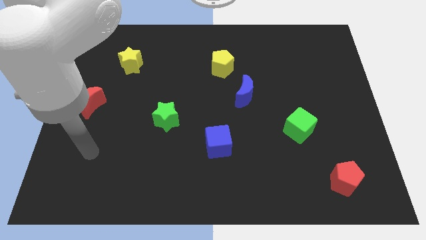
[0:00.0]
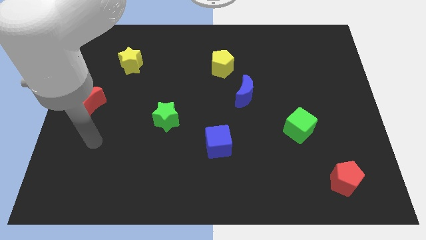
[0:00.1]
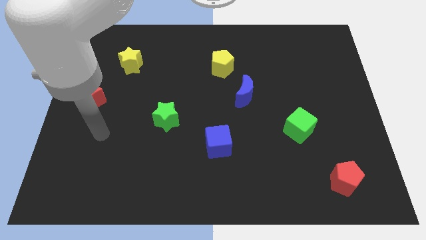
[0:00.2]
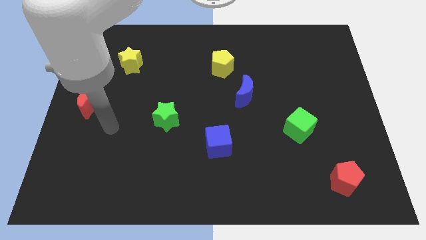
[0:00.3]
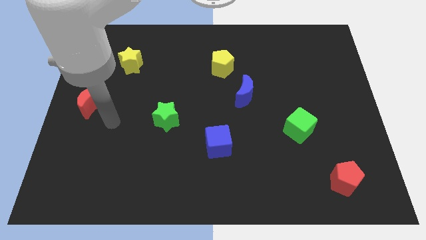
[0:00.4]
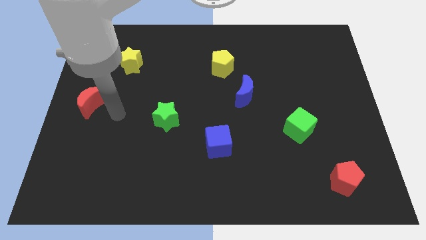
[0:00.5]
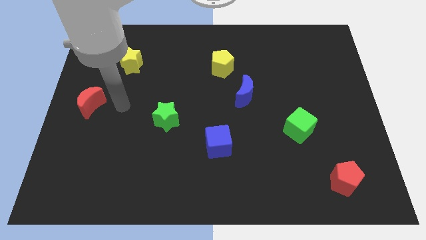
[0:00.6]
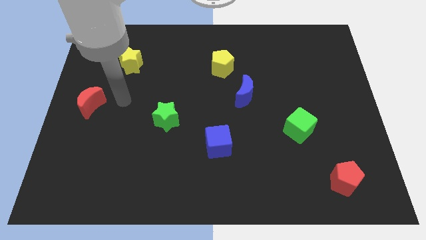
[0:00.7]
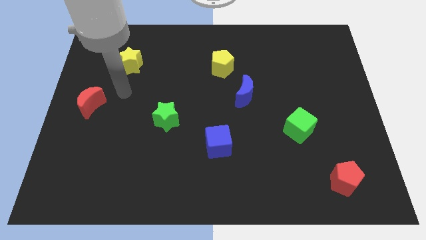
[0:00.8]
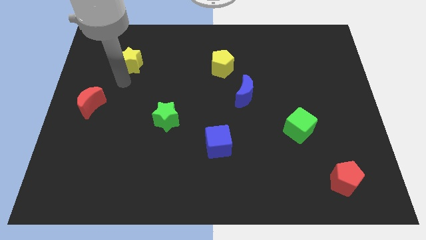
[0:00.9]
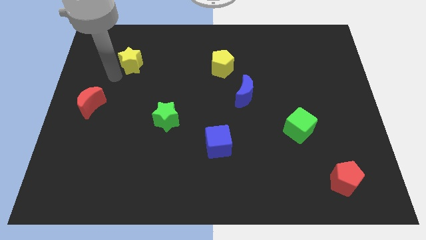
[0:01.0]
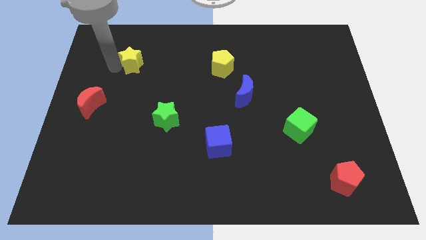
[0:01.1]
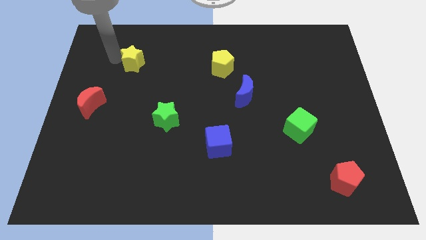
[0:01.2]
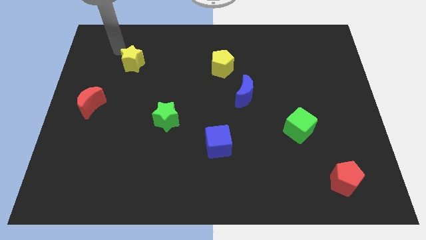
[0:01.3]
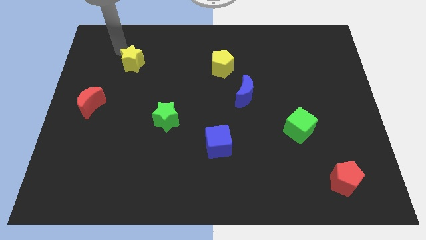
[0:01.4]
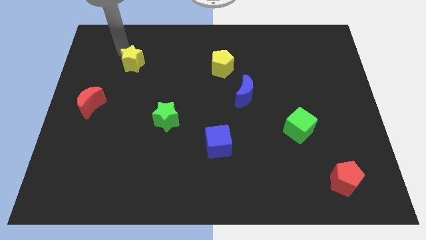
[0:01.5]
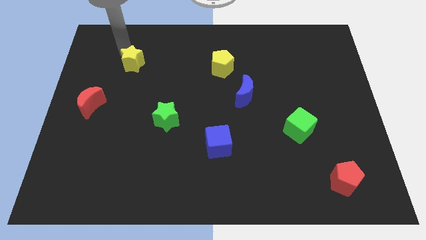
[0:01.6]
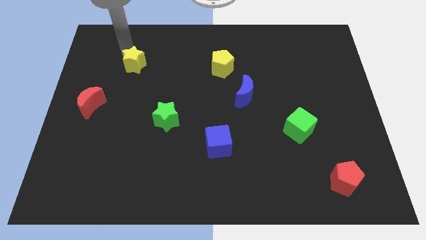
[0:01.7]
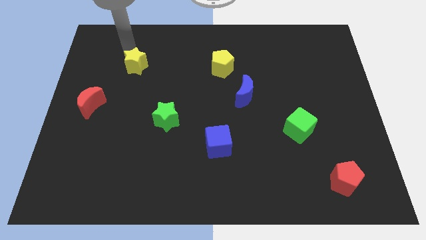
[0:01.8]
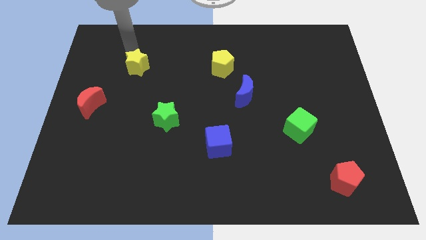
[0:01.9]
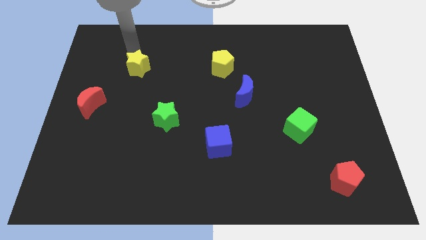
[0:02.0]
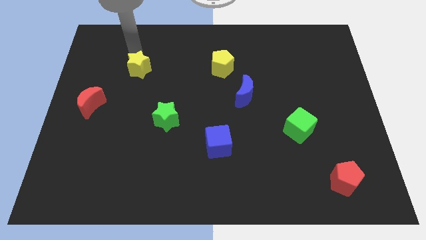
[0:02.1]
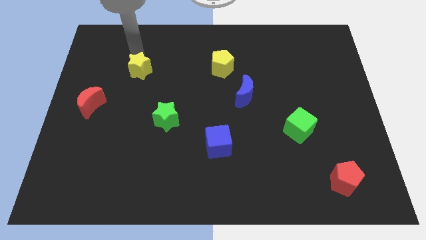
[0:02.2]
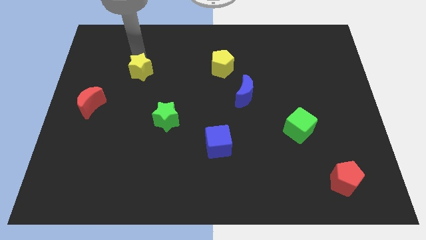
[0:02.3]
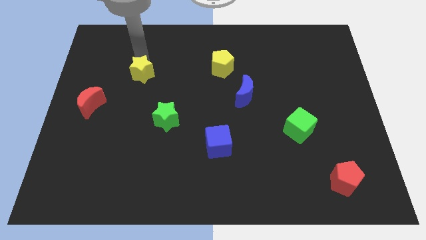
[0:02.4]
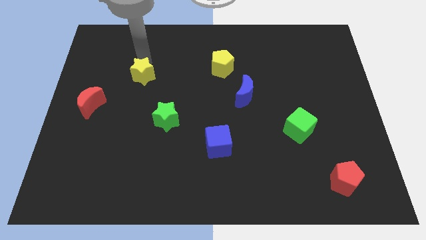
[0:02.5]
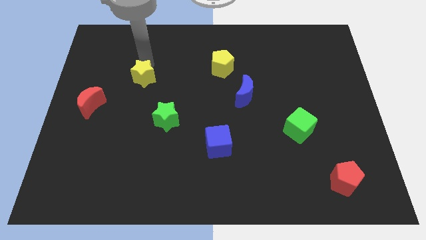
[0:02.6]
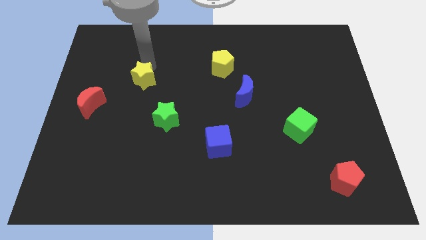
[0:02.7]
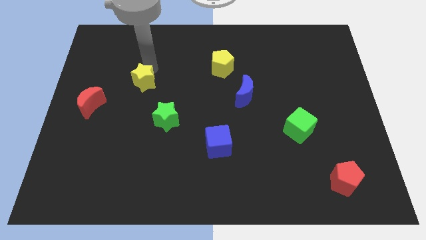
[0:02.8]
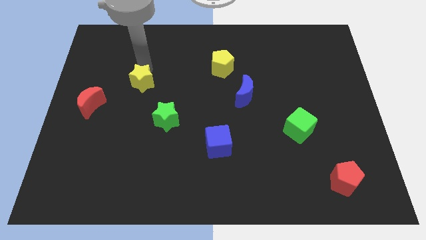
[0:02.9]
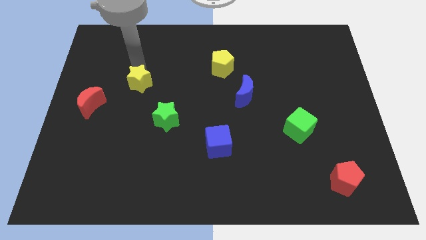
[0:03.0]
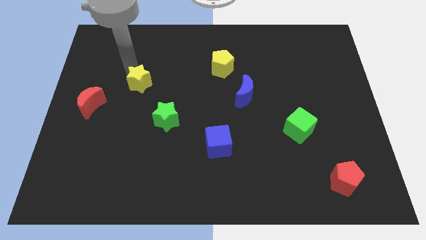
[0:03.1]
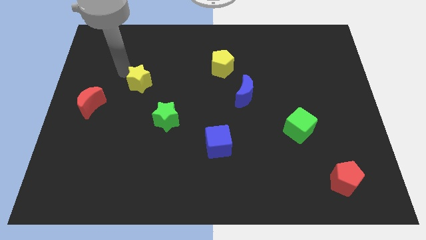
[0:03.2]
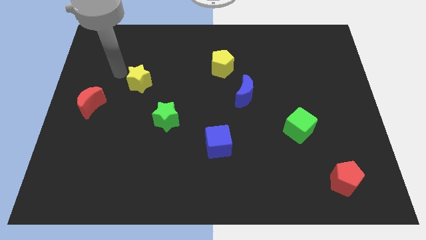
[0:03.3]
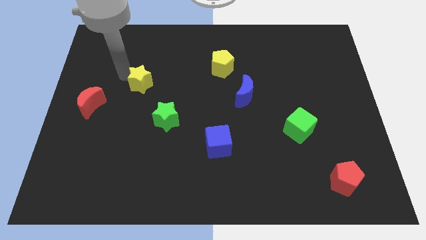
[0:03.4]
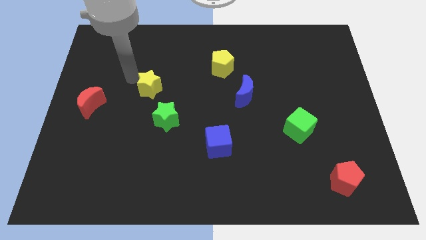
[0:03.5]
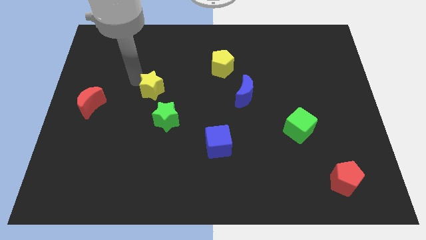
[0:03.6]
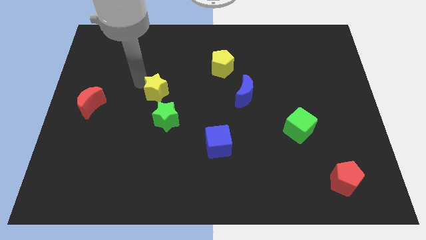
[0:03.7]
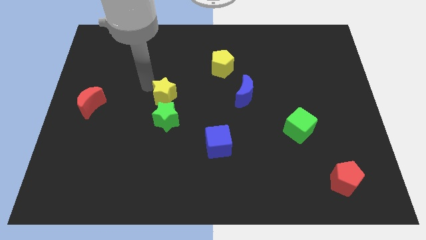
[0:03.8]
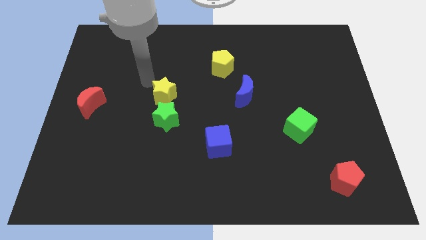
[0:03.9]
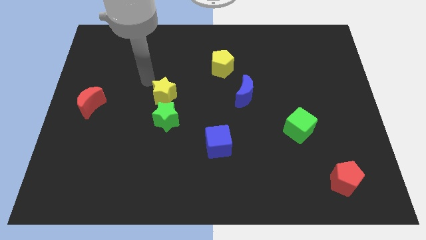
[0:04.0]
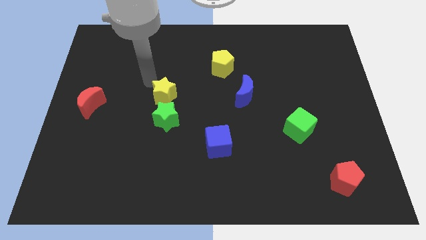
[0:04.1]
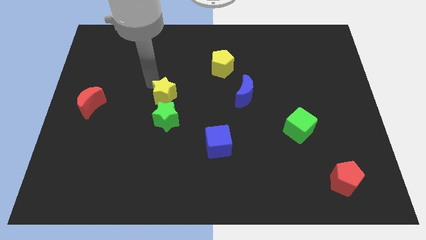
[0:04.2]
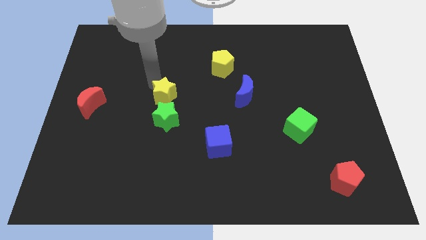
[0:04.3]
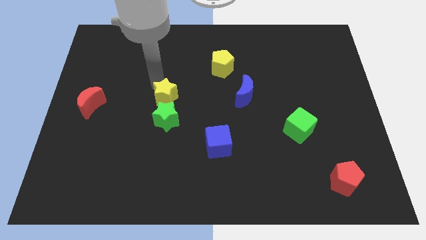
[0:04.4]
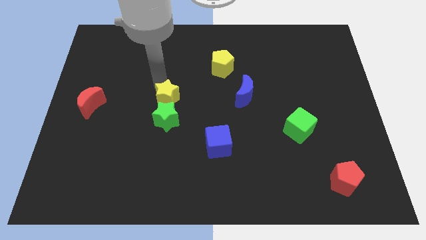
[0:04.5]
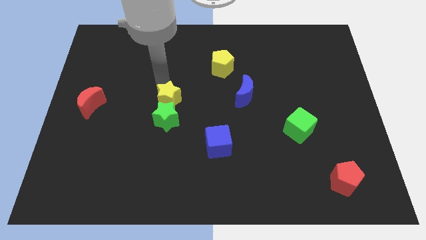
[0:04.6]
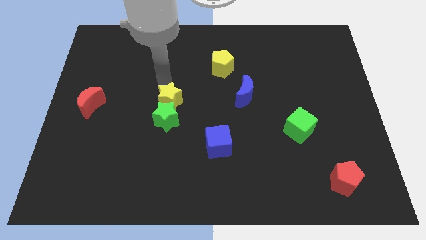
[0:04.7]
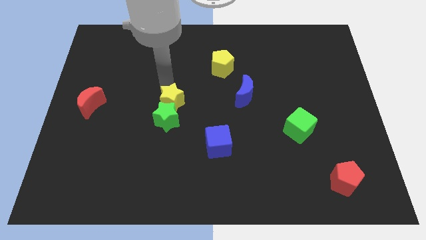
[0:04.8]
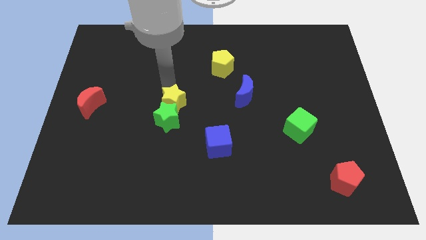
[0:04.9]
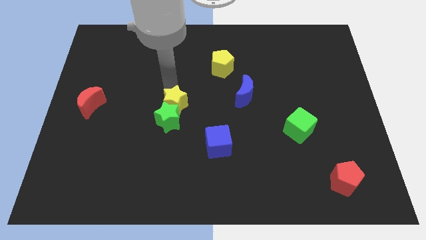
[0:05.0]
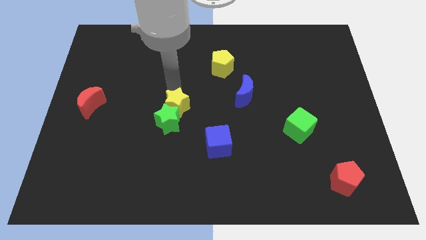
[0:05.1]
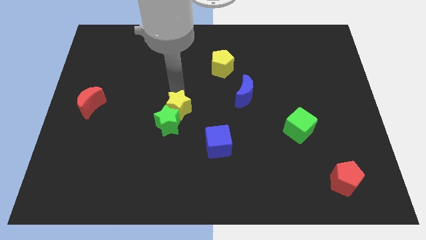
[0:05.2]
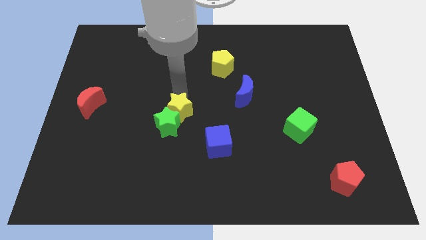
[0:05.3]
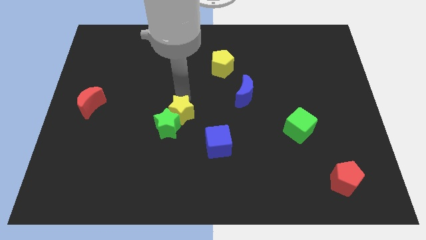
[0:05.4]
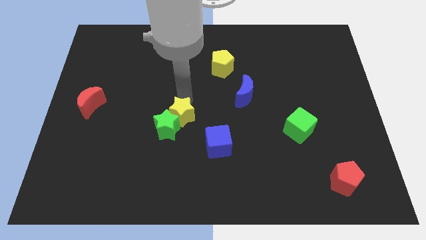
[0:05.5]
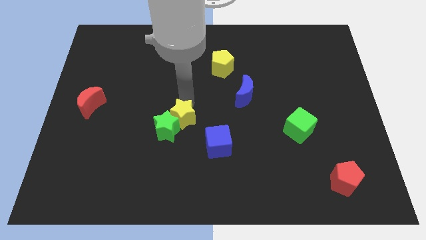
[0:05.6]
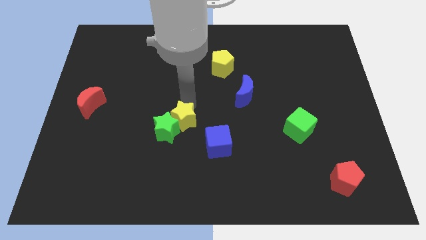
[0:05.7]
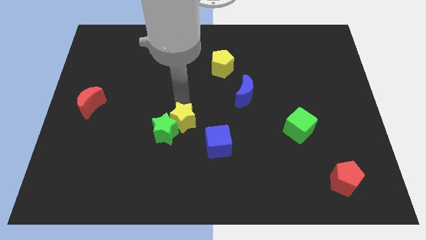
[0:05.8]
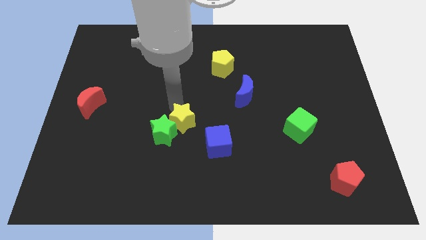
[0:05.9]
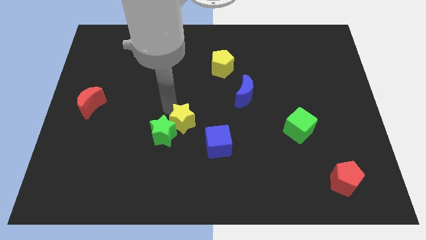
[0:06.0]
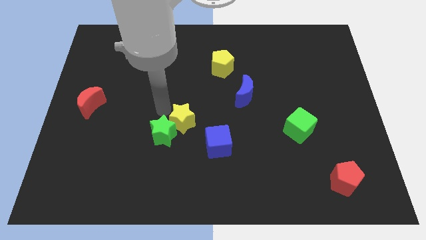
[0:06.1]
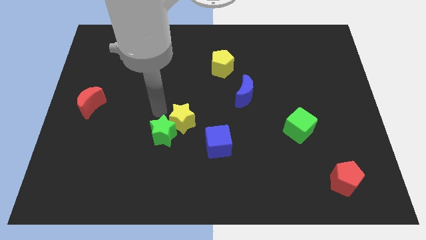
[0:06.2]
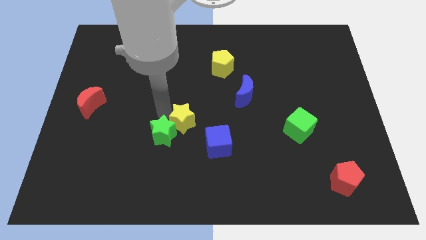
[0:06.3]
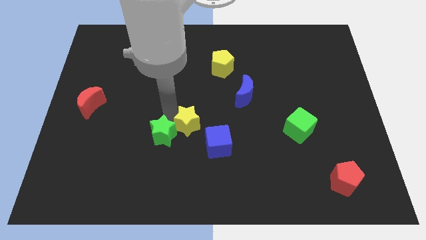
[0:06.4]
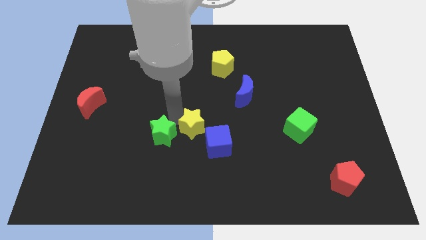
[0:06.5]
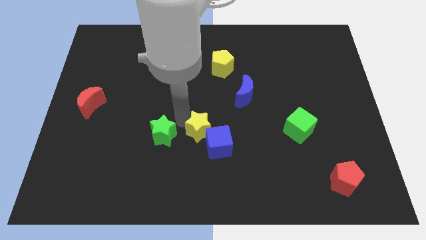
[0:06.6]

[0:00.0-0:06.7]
put the yellow star close to the blue cube

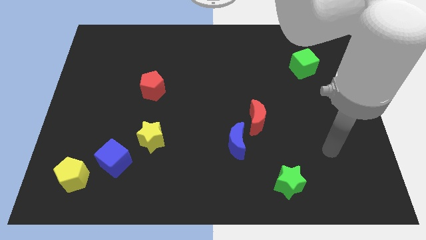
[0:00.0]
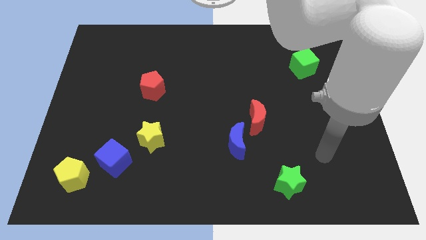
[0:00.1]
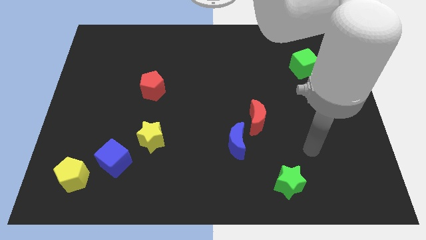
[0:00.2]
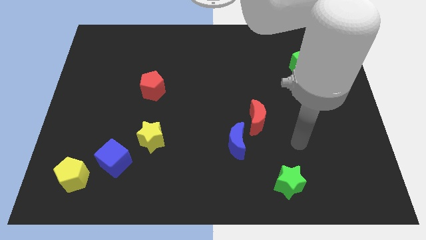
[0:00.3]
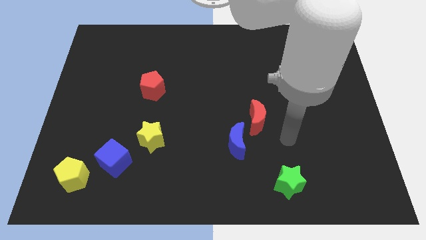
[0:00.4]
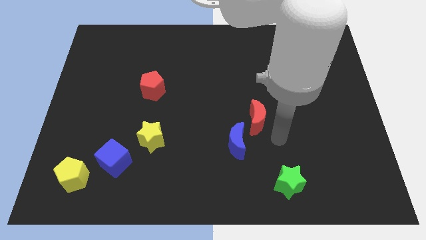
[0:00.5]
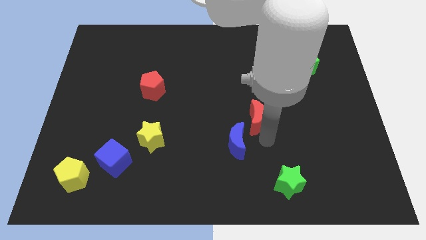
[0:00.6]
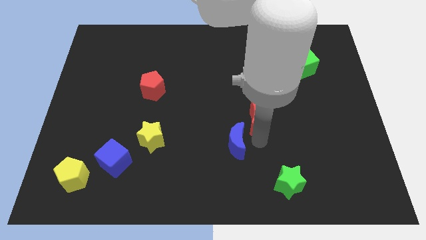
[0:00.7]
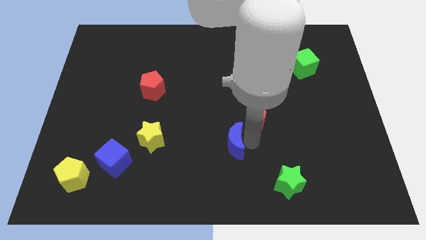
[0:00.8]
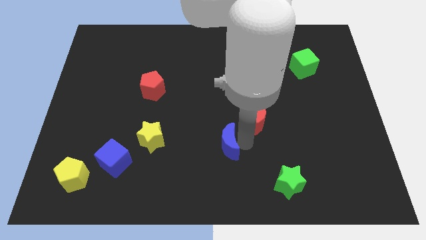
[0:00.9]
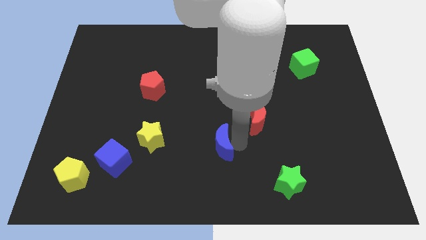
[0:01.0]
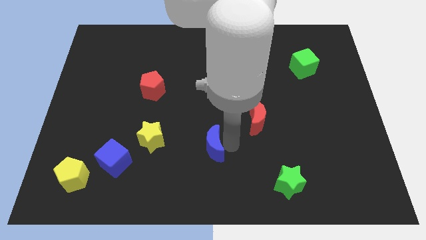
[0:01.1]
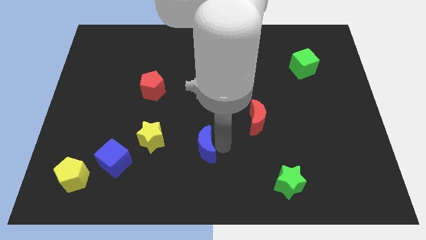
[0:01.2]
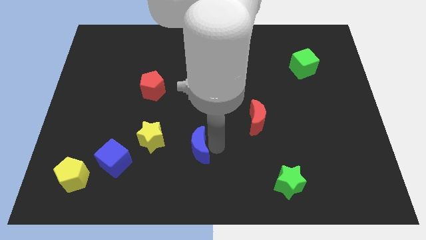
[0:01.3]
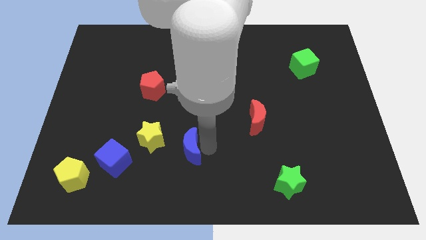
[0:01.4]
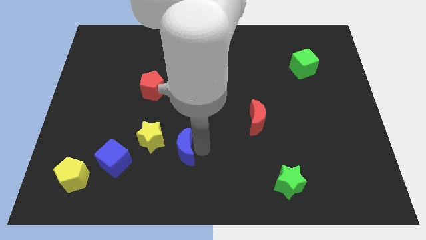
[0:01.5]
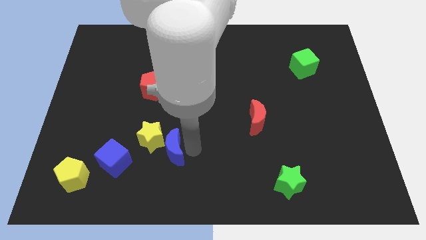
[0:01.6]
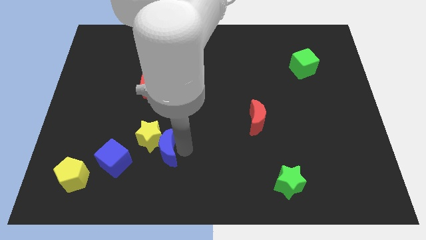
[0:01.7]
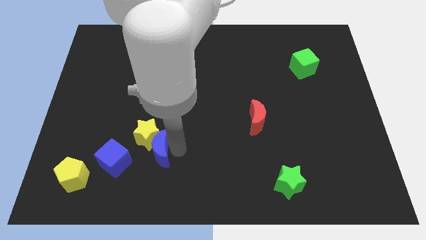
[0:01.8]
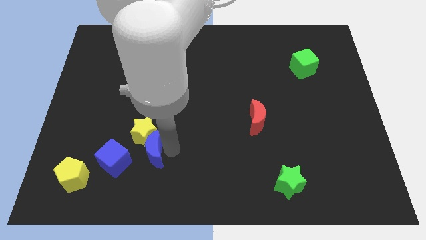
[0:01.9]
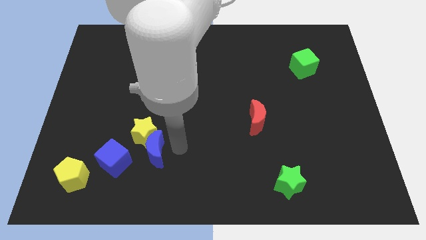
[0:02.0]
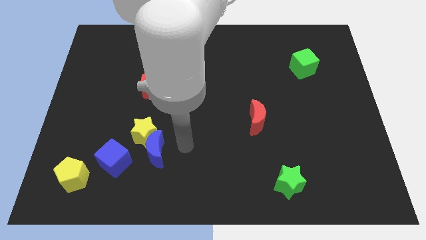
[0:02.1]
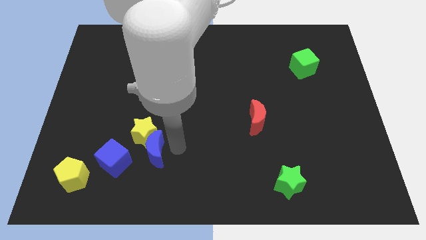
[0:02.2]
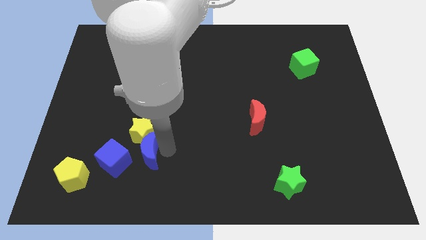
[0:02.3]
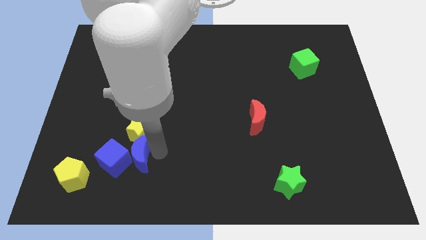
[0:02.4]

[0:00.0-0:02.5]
put the blue moon close to the blue cube
